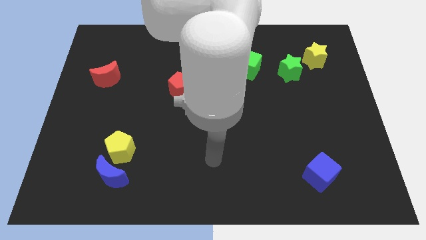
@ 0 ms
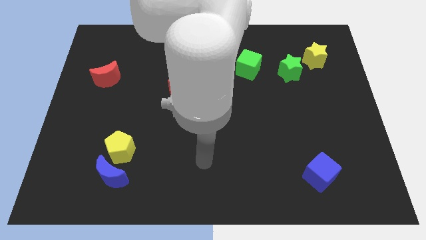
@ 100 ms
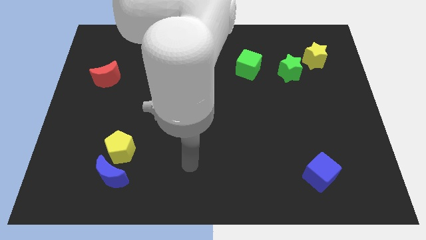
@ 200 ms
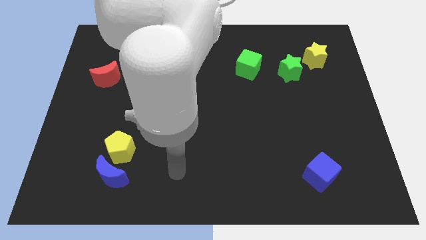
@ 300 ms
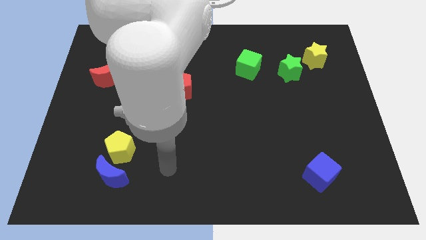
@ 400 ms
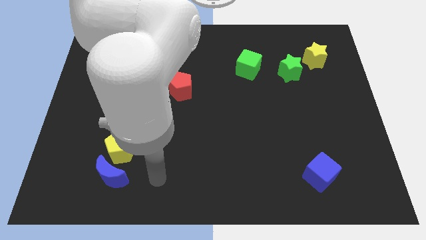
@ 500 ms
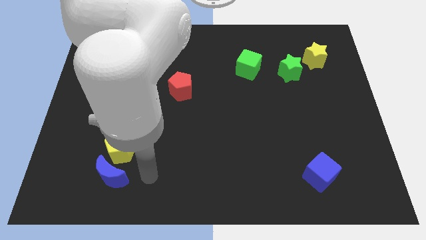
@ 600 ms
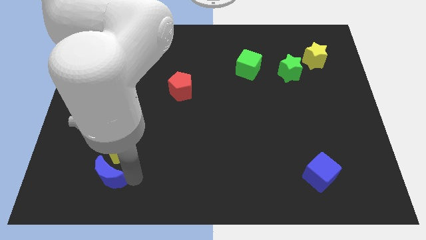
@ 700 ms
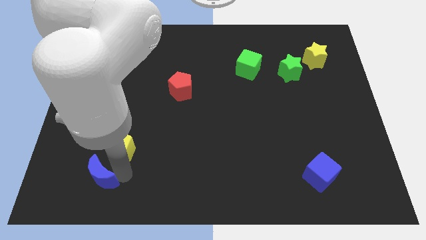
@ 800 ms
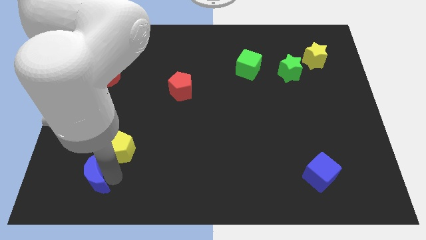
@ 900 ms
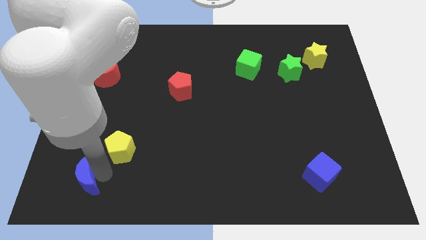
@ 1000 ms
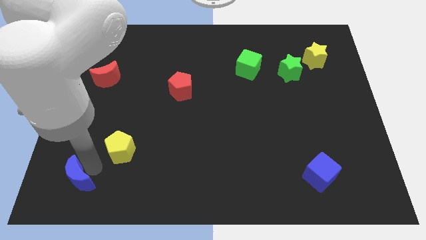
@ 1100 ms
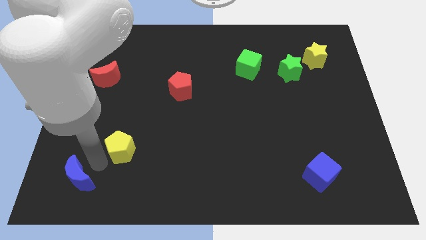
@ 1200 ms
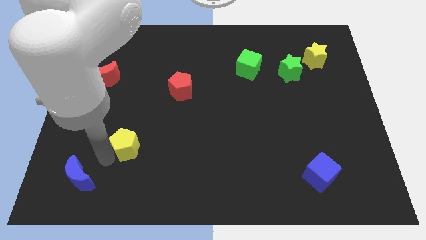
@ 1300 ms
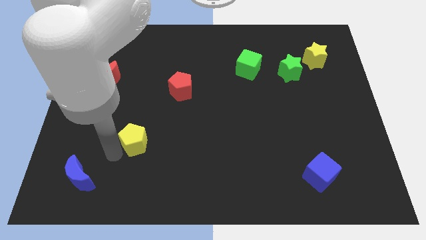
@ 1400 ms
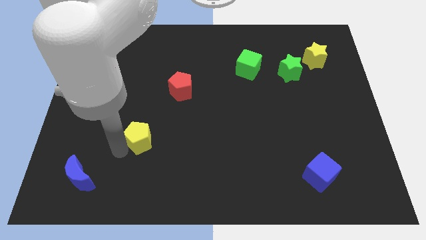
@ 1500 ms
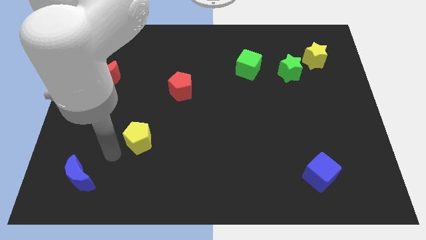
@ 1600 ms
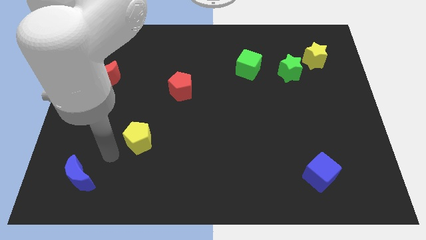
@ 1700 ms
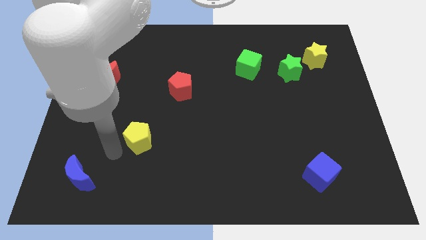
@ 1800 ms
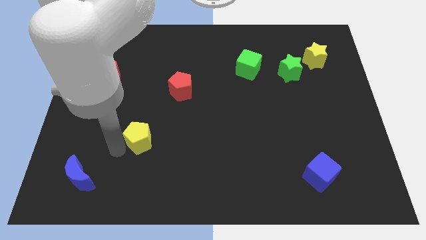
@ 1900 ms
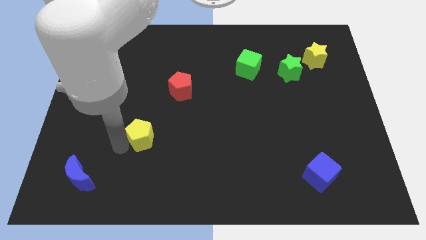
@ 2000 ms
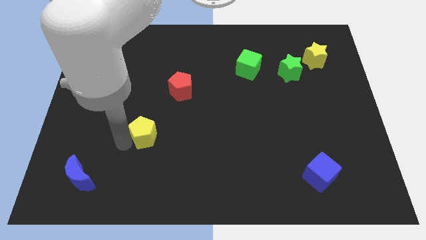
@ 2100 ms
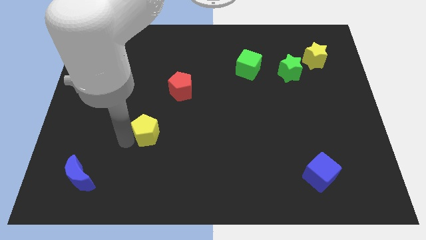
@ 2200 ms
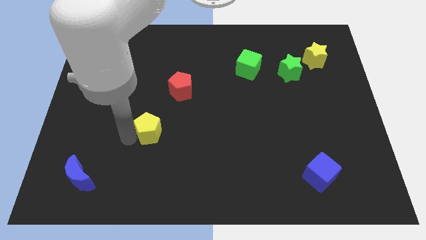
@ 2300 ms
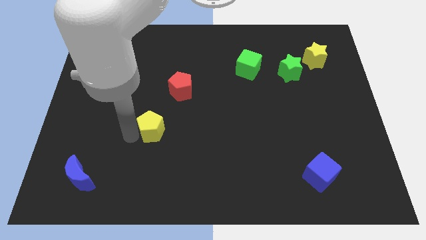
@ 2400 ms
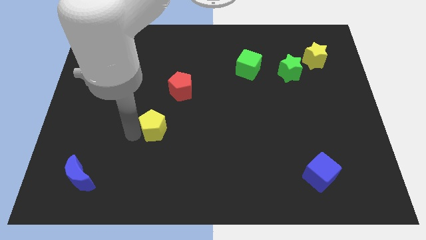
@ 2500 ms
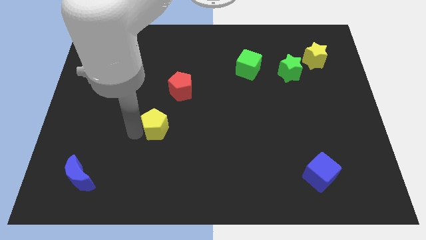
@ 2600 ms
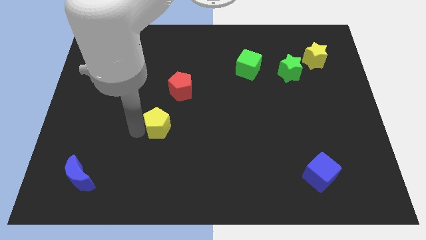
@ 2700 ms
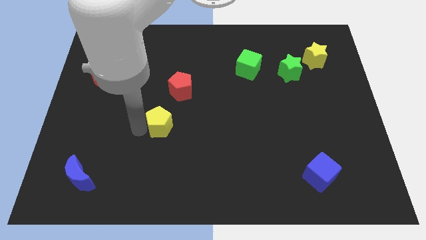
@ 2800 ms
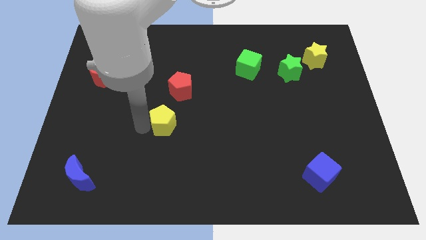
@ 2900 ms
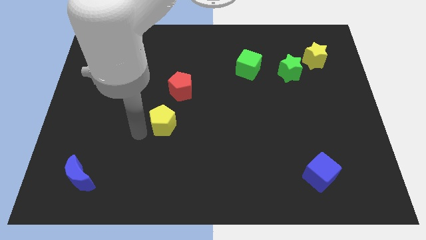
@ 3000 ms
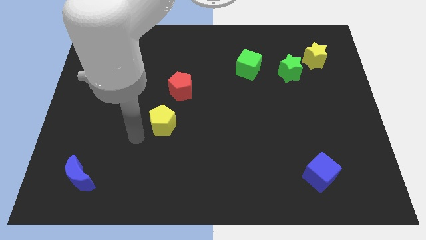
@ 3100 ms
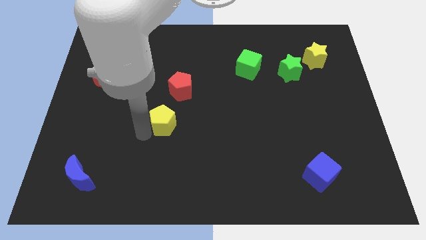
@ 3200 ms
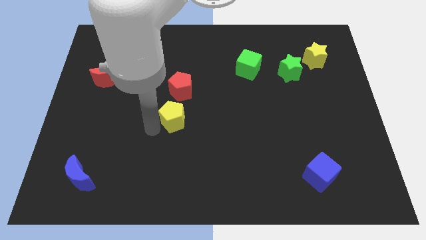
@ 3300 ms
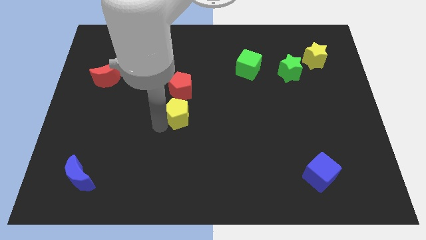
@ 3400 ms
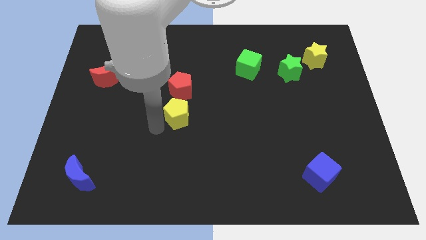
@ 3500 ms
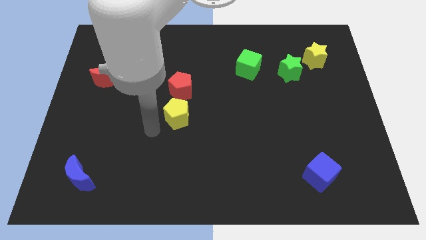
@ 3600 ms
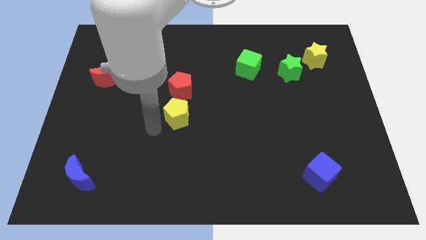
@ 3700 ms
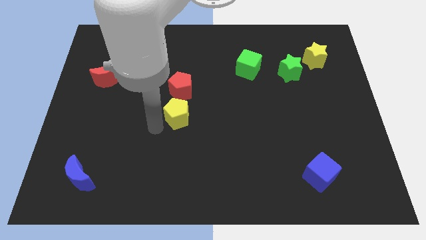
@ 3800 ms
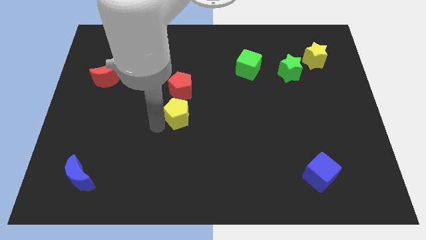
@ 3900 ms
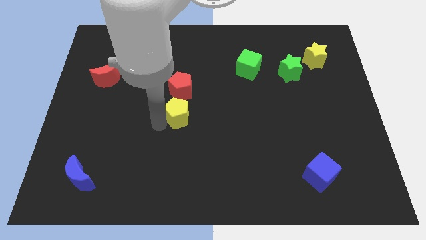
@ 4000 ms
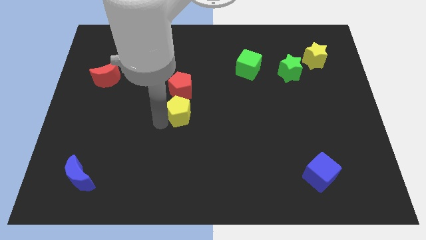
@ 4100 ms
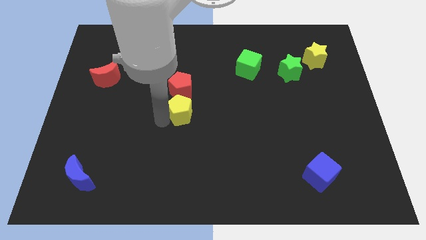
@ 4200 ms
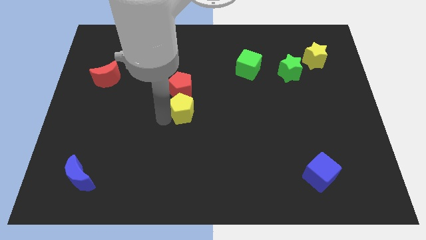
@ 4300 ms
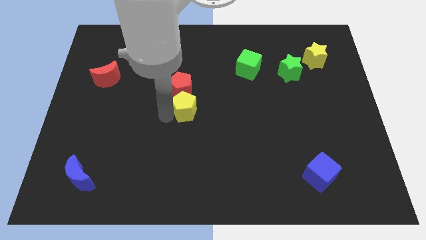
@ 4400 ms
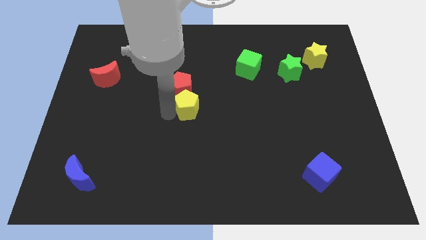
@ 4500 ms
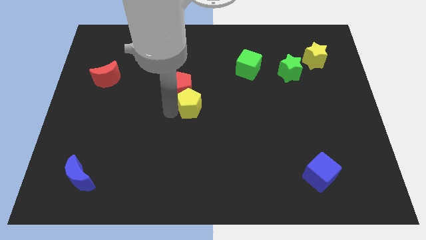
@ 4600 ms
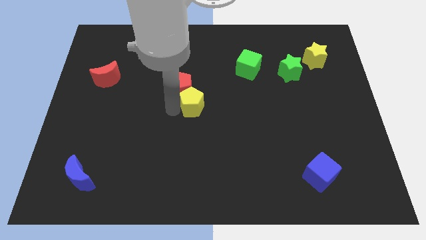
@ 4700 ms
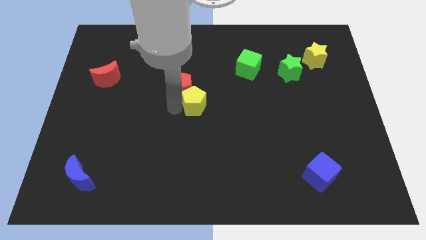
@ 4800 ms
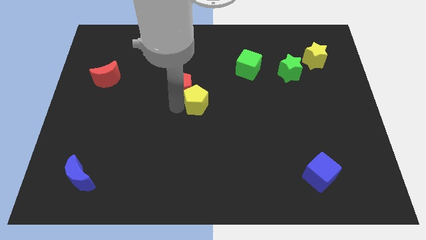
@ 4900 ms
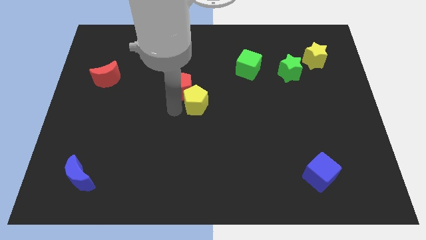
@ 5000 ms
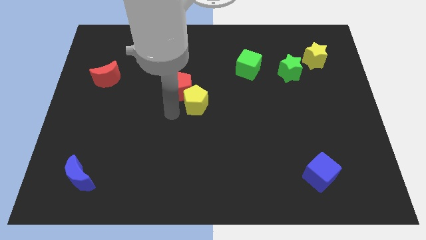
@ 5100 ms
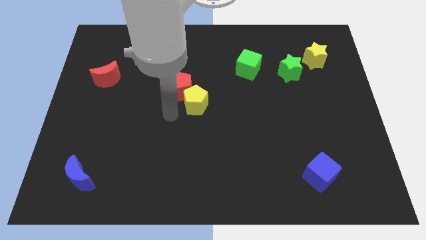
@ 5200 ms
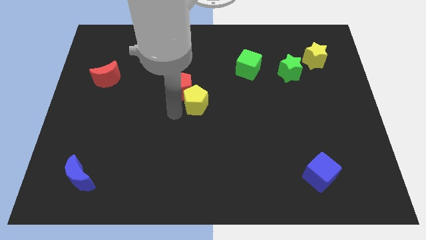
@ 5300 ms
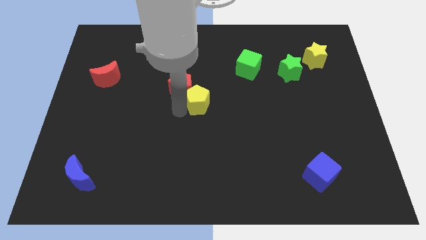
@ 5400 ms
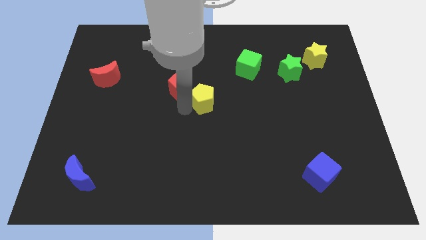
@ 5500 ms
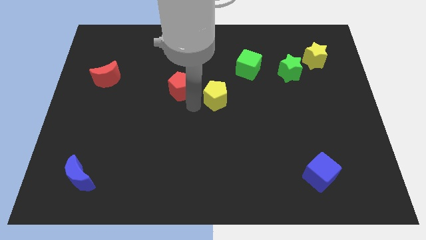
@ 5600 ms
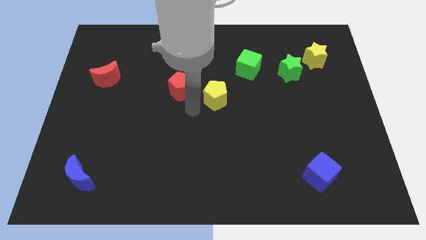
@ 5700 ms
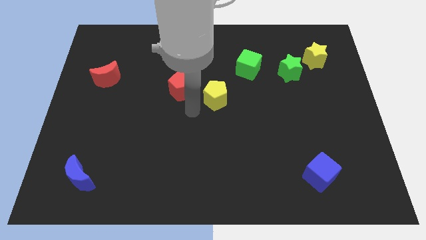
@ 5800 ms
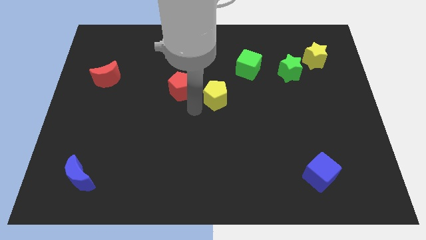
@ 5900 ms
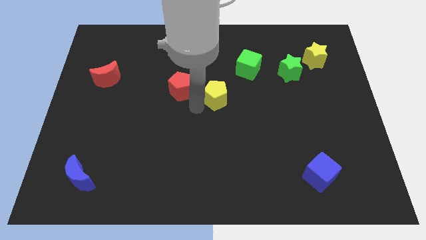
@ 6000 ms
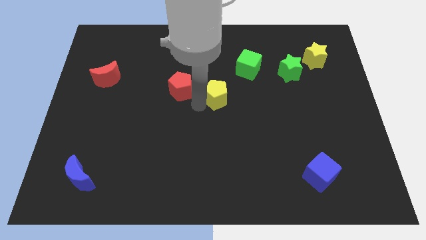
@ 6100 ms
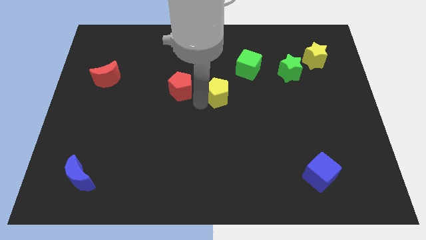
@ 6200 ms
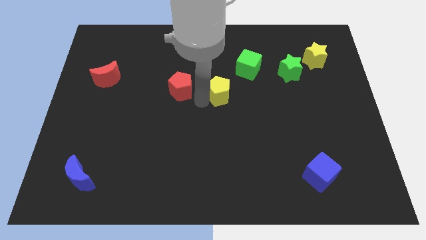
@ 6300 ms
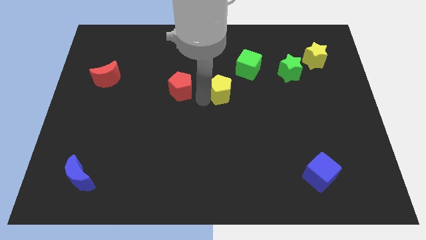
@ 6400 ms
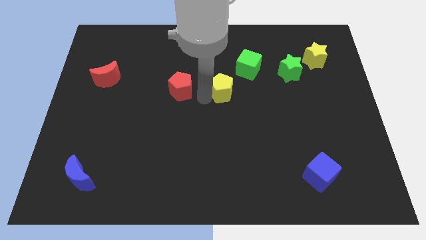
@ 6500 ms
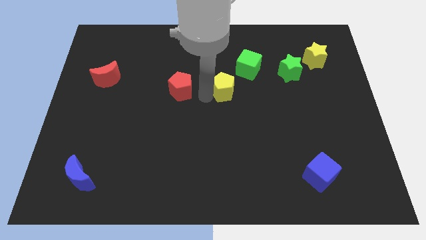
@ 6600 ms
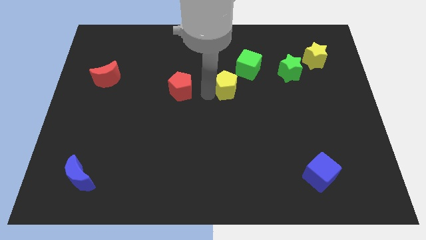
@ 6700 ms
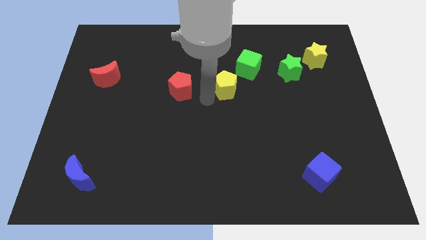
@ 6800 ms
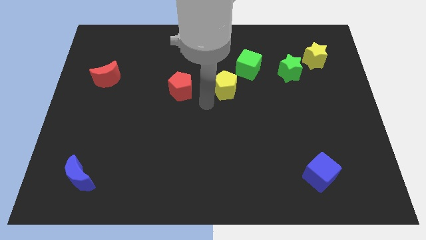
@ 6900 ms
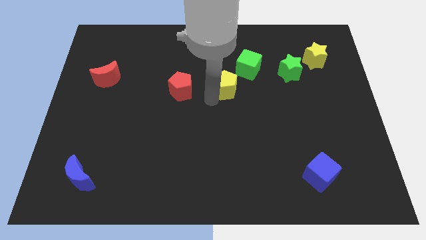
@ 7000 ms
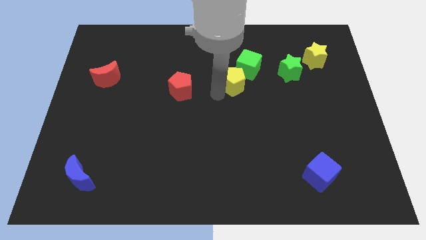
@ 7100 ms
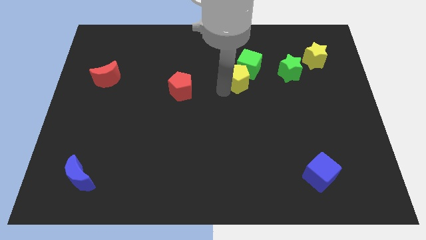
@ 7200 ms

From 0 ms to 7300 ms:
slide the yellow pentagon close to the green cube
